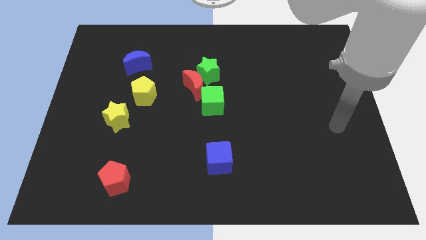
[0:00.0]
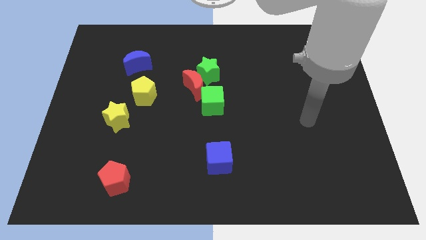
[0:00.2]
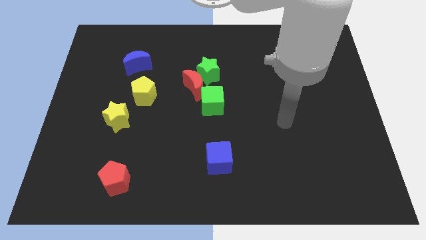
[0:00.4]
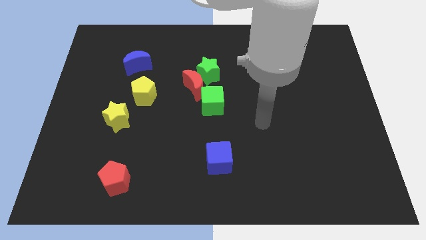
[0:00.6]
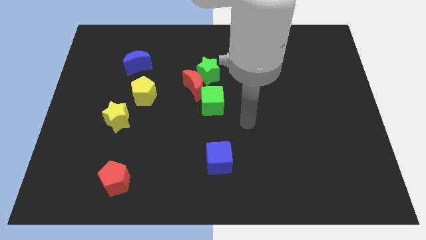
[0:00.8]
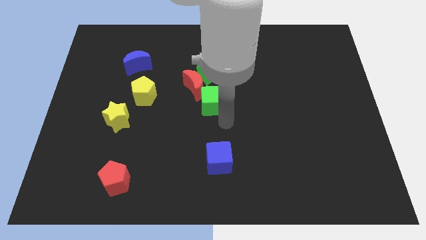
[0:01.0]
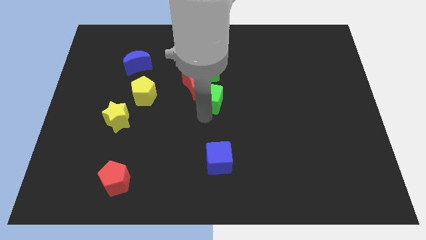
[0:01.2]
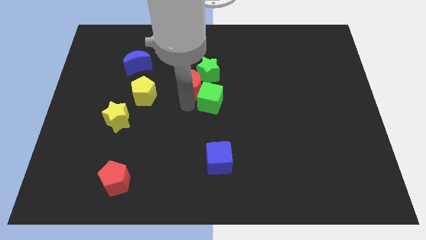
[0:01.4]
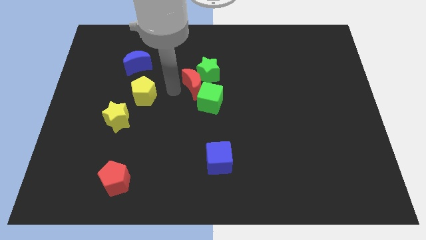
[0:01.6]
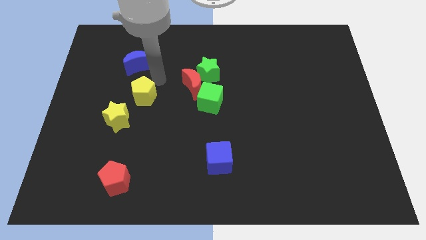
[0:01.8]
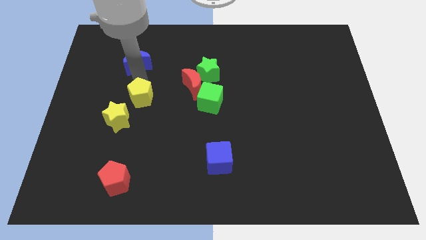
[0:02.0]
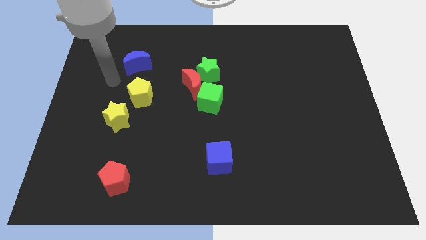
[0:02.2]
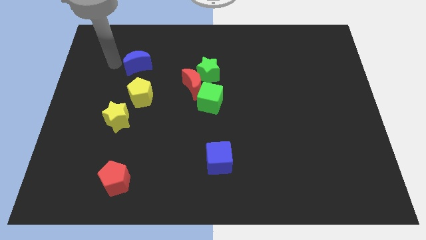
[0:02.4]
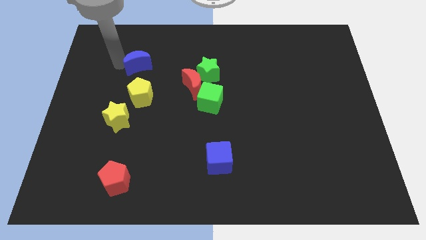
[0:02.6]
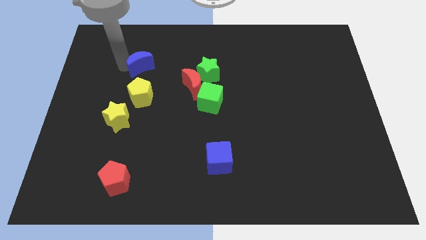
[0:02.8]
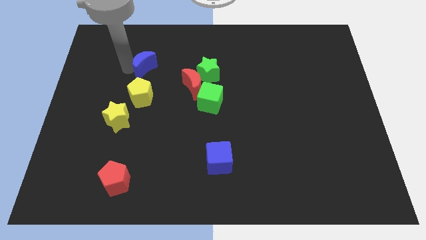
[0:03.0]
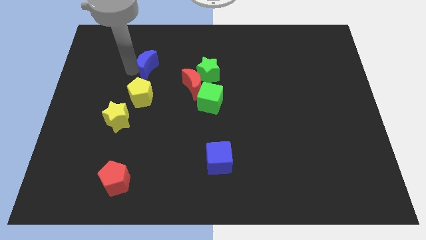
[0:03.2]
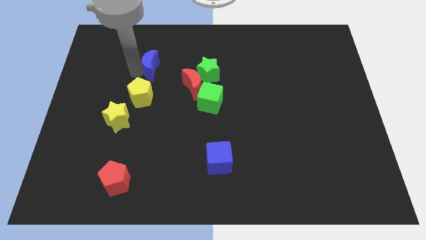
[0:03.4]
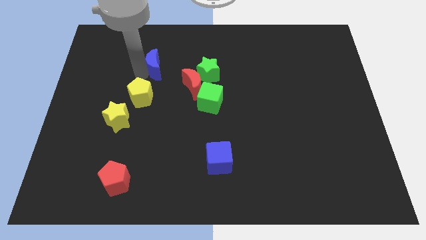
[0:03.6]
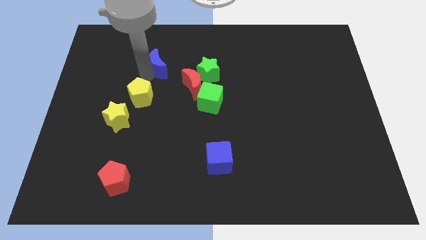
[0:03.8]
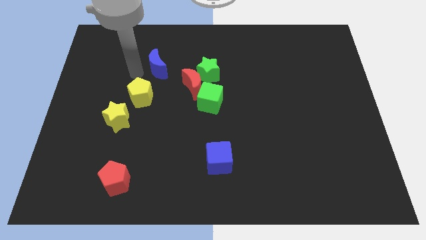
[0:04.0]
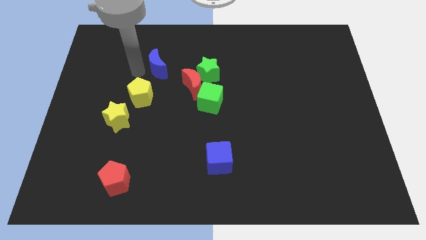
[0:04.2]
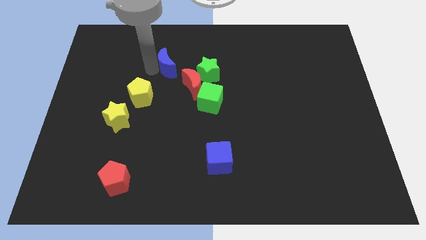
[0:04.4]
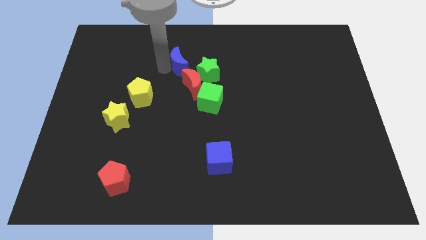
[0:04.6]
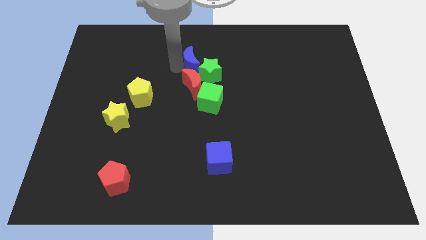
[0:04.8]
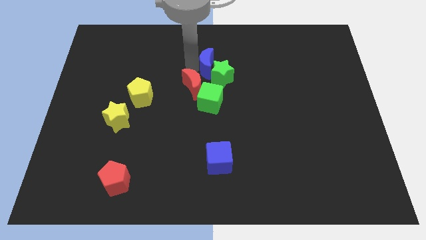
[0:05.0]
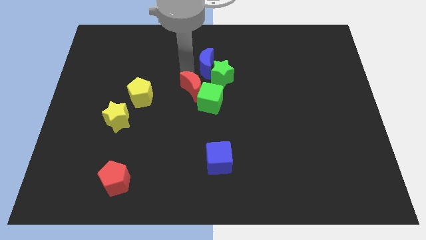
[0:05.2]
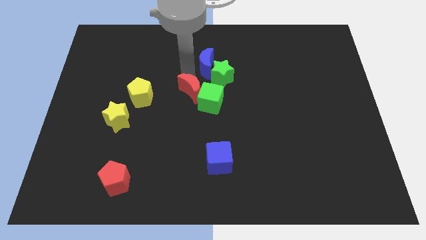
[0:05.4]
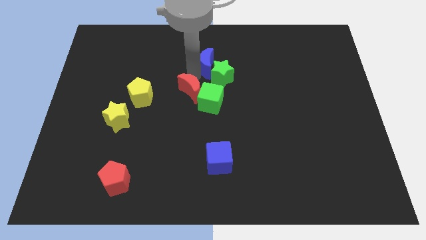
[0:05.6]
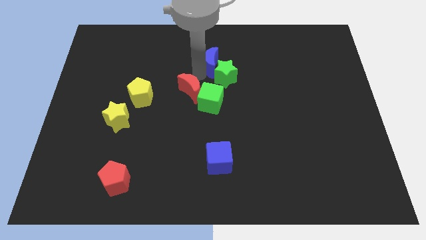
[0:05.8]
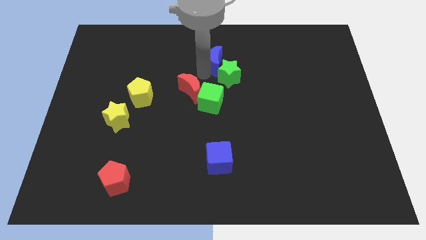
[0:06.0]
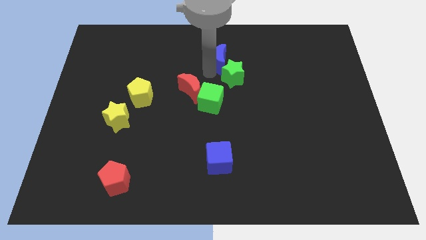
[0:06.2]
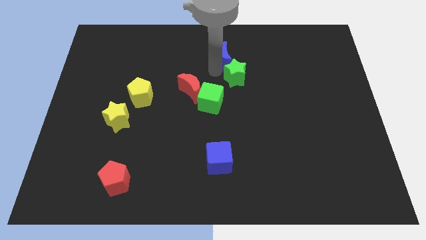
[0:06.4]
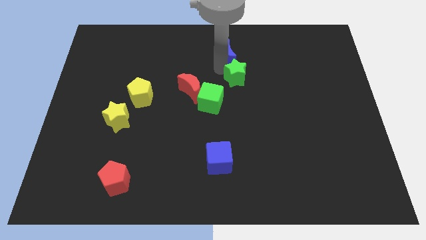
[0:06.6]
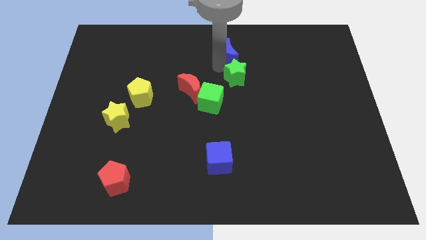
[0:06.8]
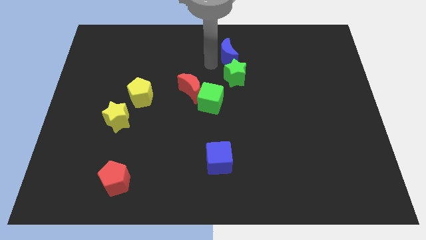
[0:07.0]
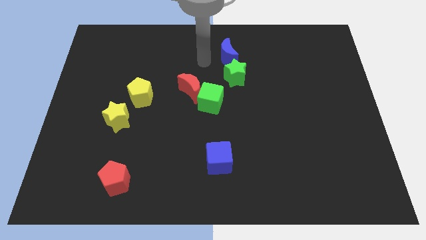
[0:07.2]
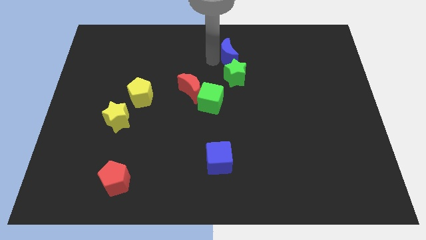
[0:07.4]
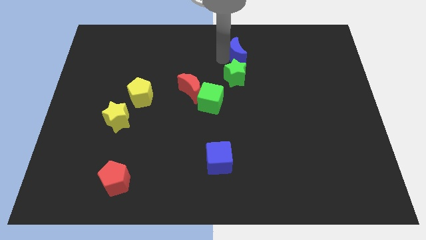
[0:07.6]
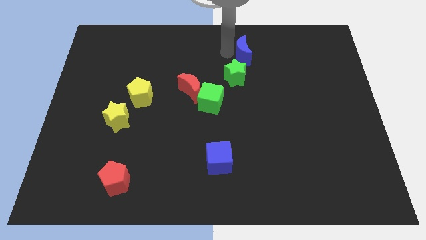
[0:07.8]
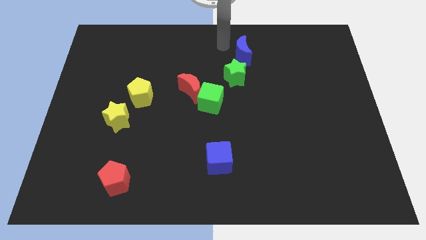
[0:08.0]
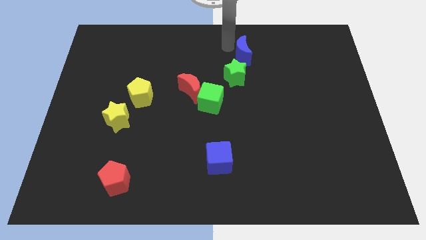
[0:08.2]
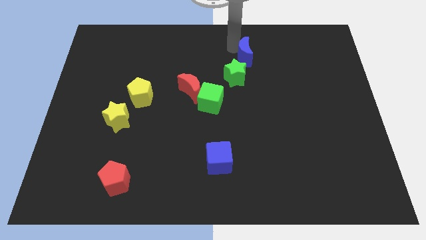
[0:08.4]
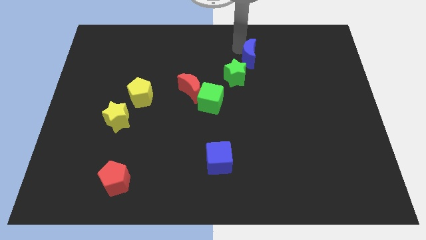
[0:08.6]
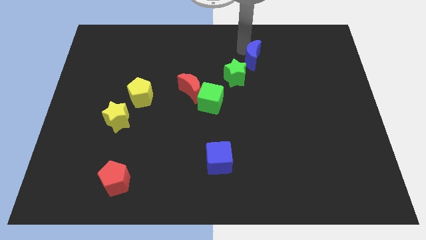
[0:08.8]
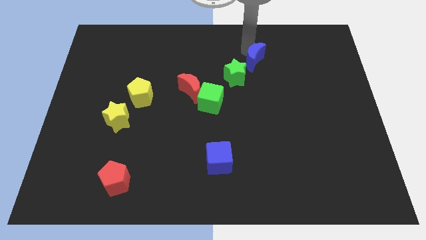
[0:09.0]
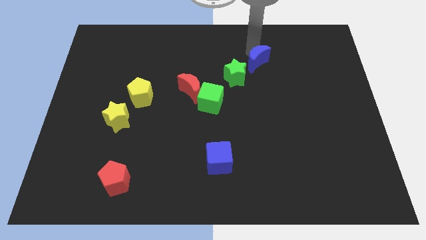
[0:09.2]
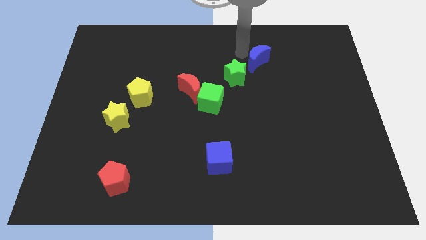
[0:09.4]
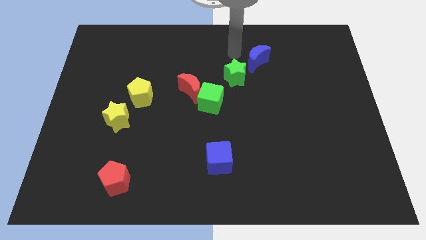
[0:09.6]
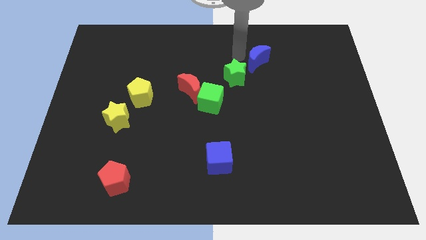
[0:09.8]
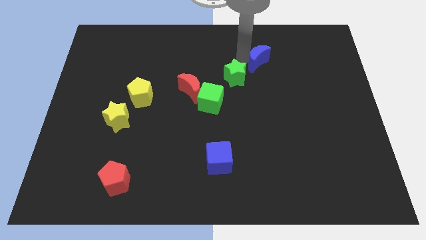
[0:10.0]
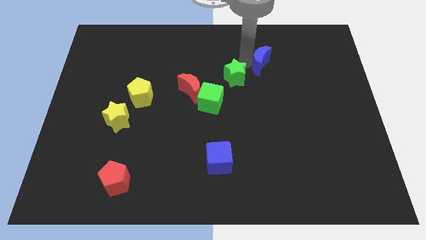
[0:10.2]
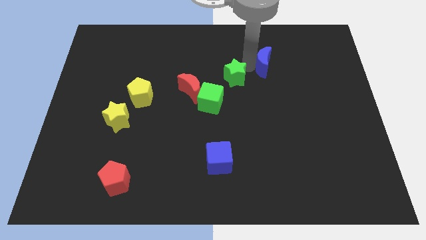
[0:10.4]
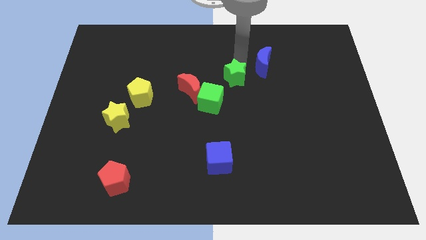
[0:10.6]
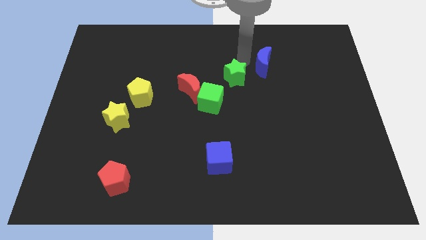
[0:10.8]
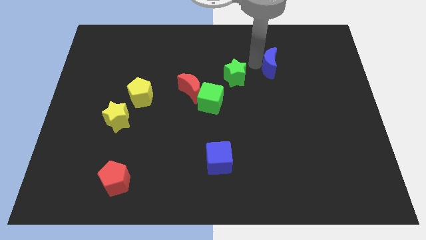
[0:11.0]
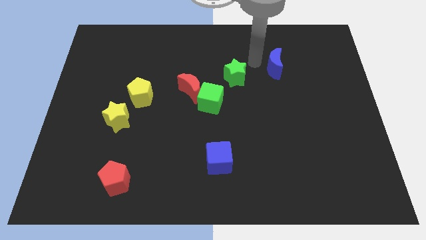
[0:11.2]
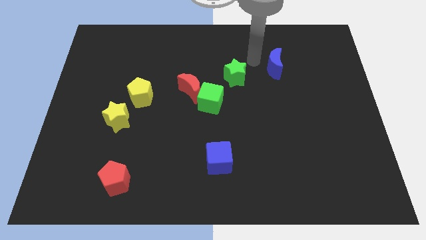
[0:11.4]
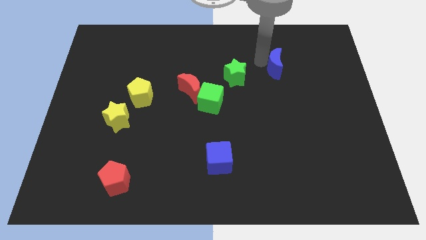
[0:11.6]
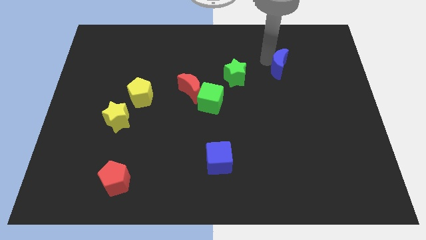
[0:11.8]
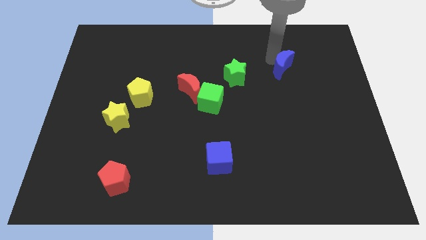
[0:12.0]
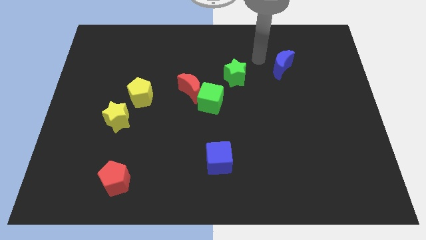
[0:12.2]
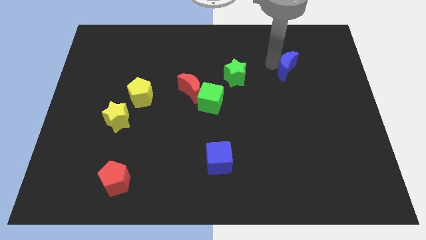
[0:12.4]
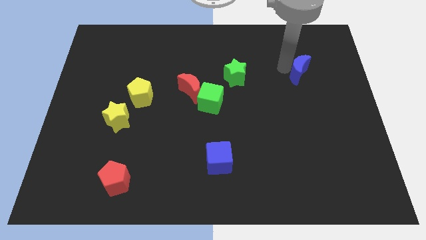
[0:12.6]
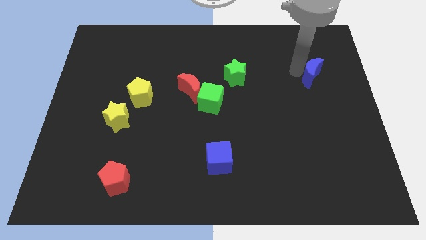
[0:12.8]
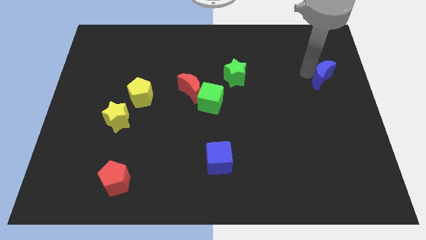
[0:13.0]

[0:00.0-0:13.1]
slide the blue moon to the right side of the board
